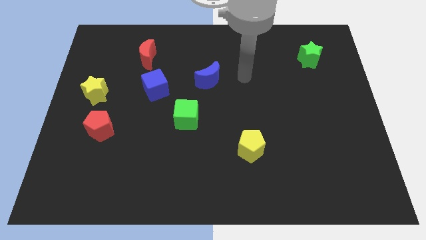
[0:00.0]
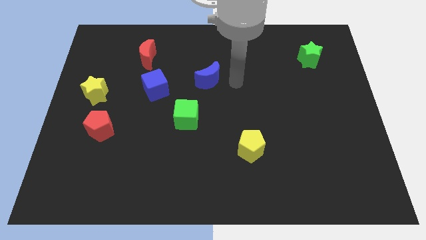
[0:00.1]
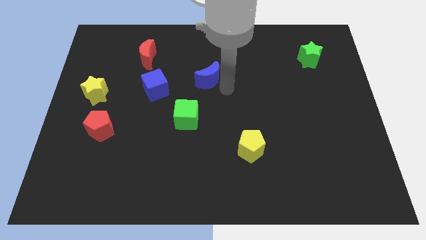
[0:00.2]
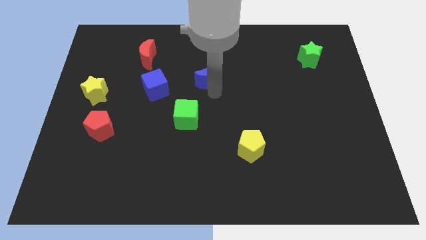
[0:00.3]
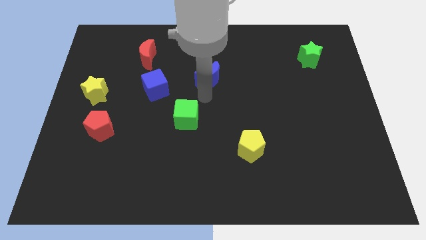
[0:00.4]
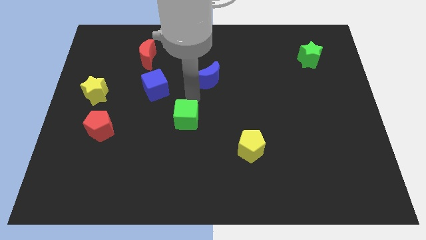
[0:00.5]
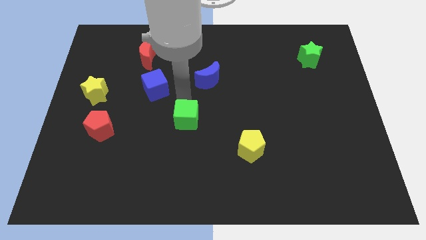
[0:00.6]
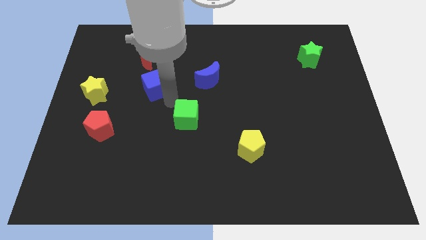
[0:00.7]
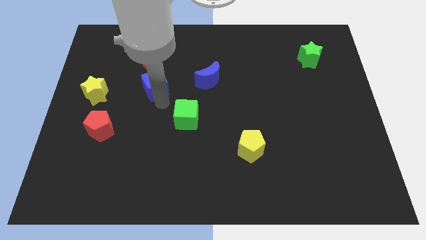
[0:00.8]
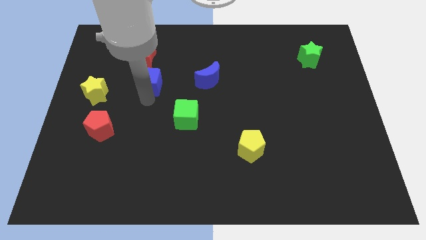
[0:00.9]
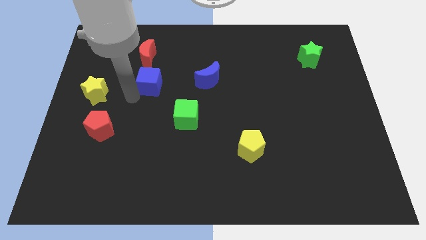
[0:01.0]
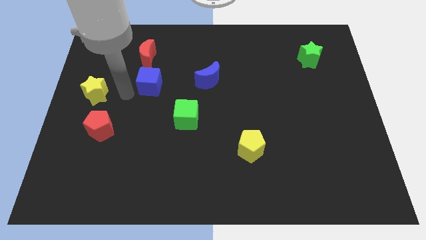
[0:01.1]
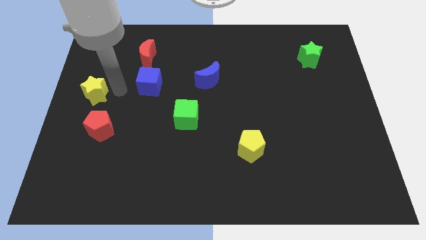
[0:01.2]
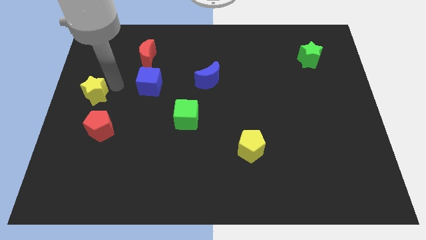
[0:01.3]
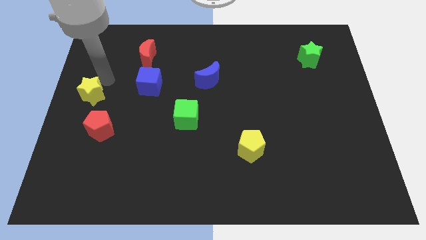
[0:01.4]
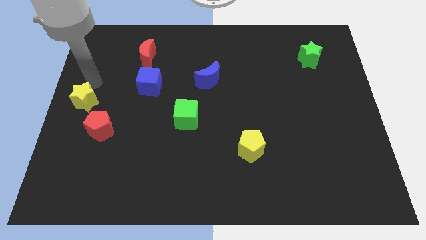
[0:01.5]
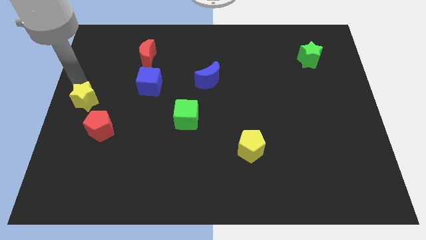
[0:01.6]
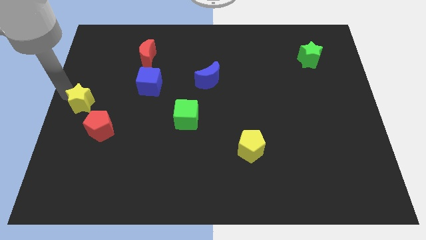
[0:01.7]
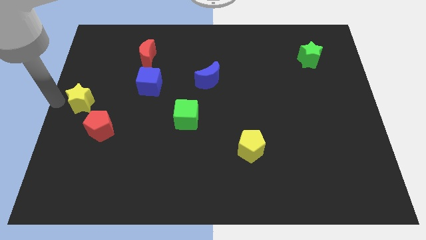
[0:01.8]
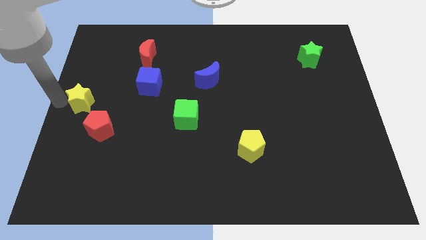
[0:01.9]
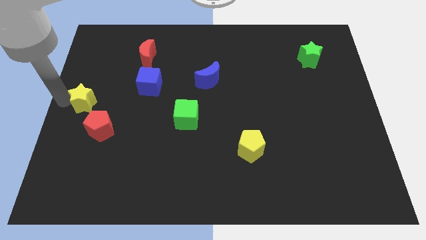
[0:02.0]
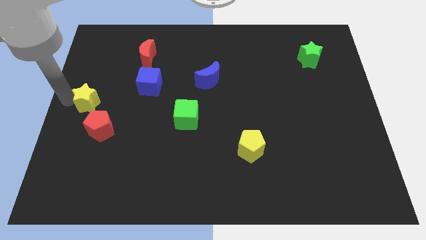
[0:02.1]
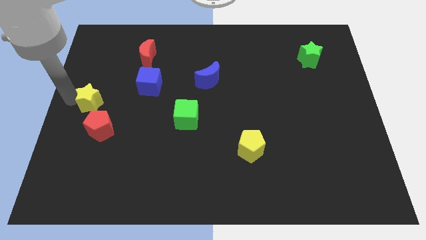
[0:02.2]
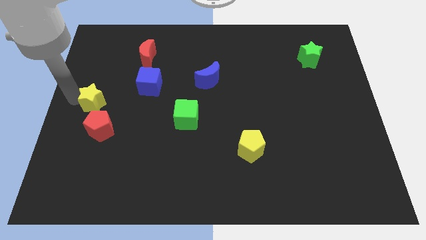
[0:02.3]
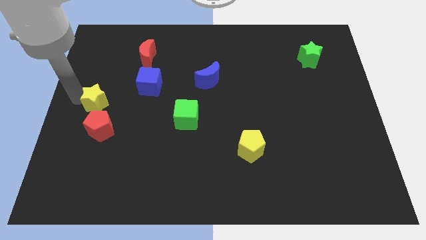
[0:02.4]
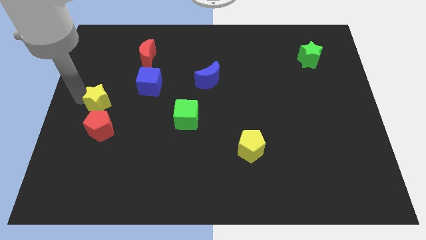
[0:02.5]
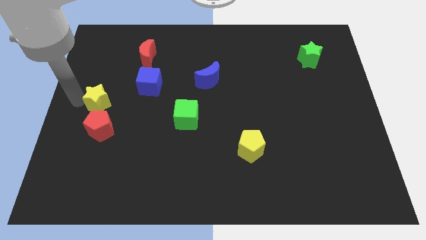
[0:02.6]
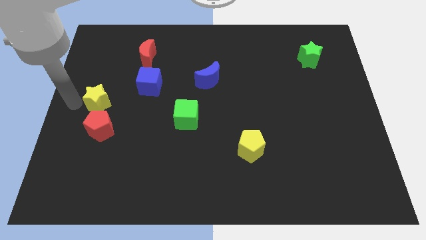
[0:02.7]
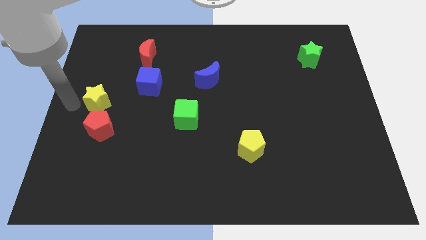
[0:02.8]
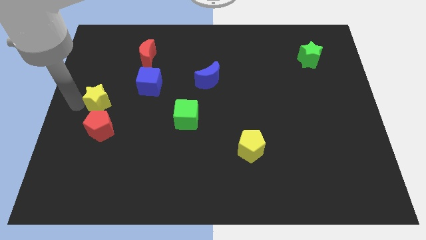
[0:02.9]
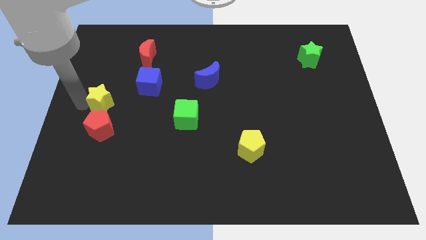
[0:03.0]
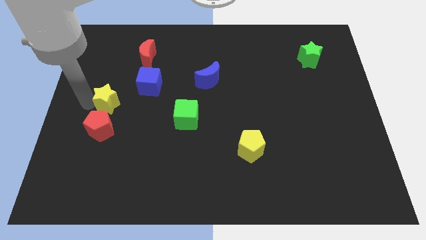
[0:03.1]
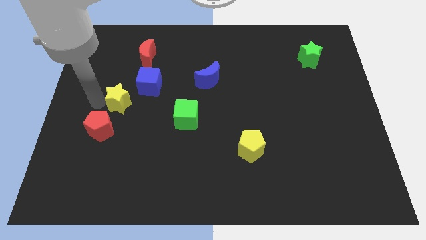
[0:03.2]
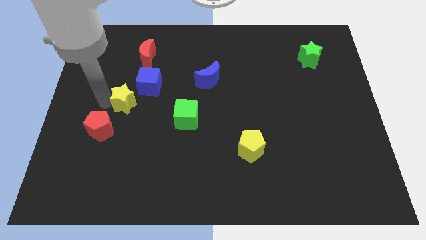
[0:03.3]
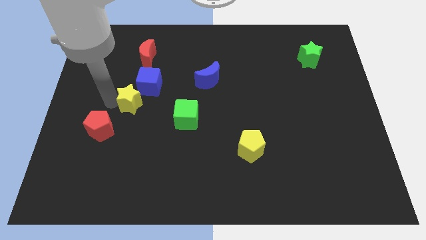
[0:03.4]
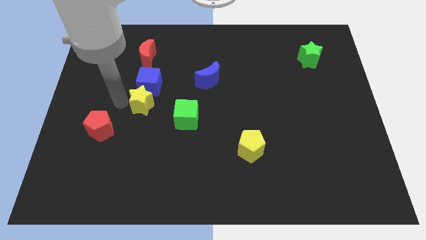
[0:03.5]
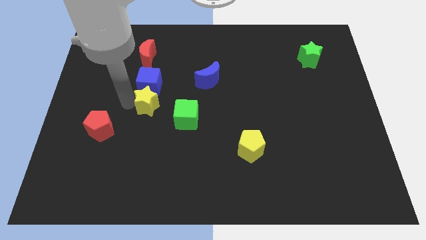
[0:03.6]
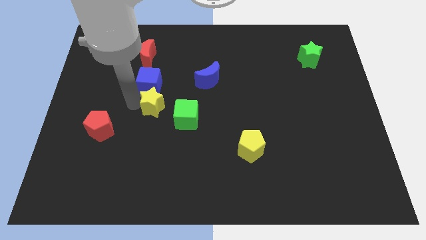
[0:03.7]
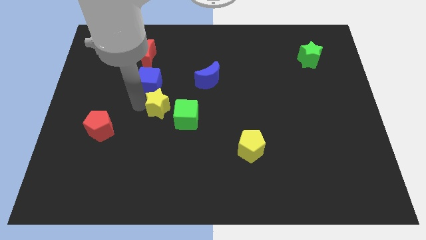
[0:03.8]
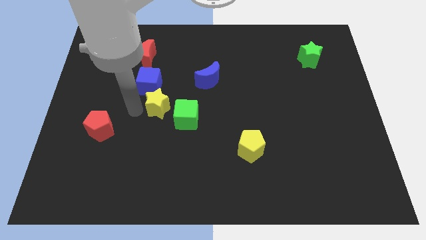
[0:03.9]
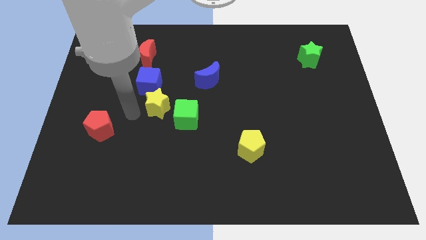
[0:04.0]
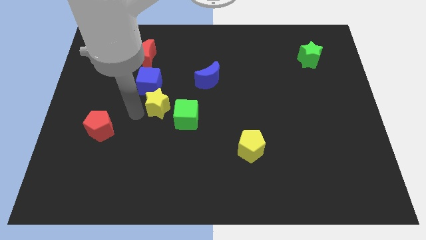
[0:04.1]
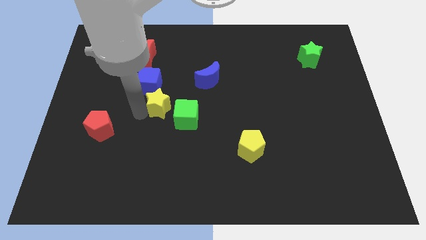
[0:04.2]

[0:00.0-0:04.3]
move the yellow star to the center

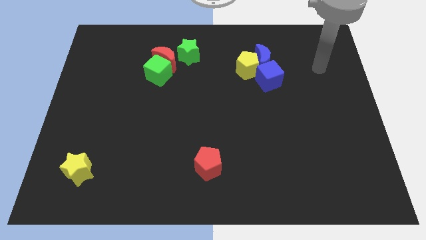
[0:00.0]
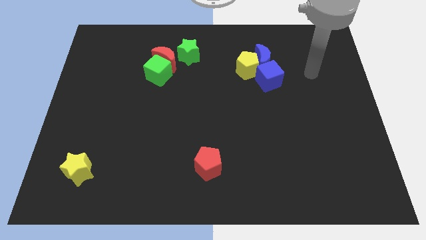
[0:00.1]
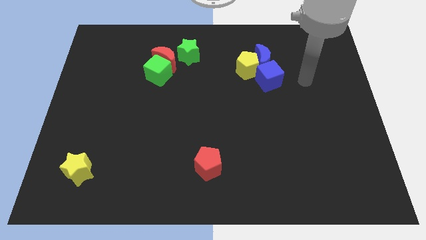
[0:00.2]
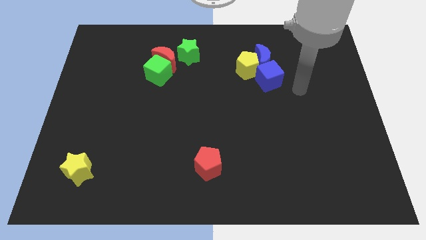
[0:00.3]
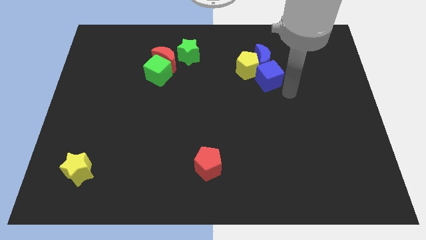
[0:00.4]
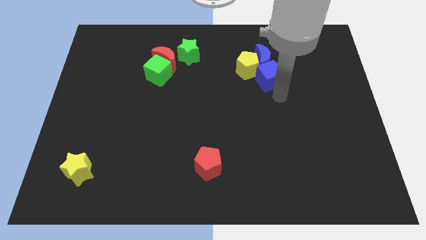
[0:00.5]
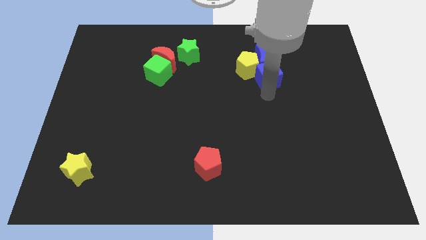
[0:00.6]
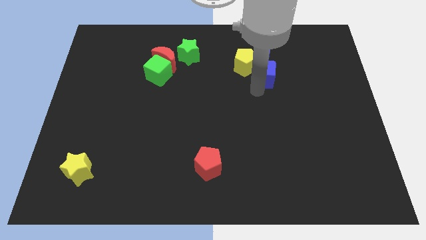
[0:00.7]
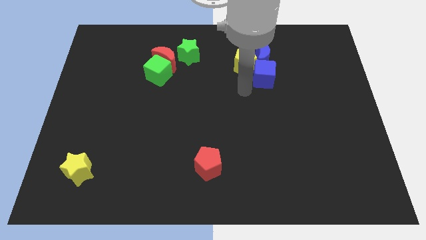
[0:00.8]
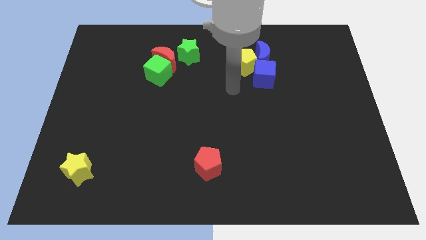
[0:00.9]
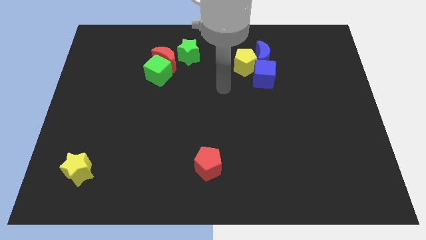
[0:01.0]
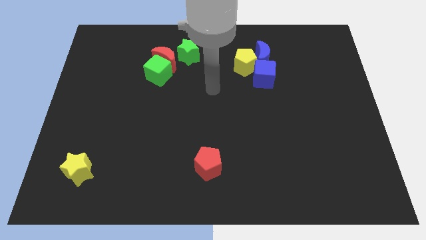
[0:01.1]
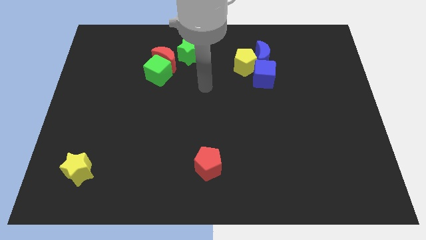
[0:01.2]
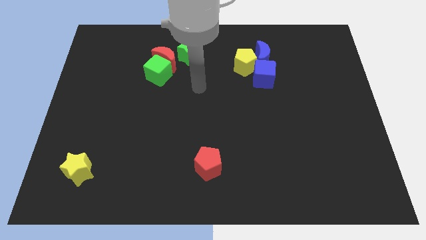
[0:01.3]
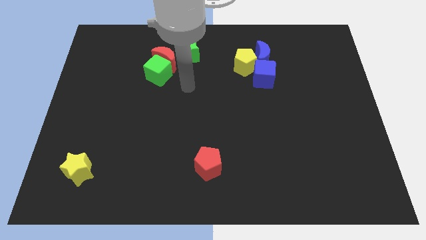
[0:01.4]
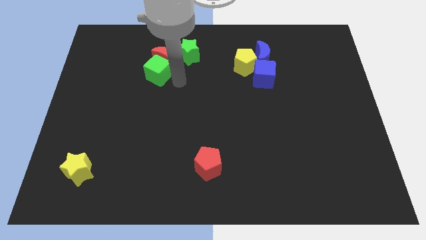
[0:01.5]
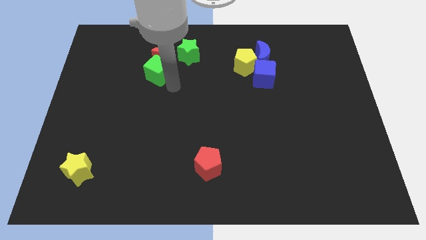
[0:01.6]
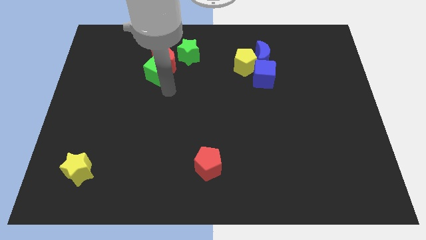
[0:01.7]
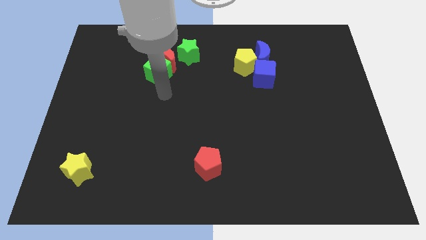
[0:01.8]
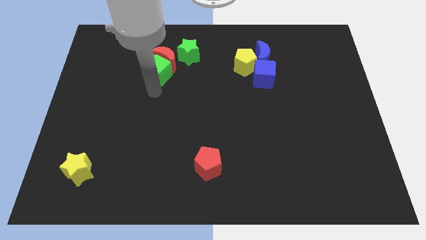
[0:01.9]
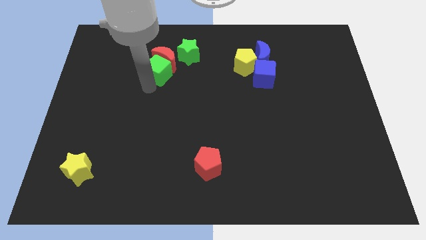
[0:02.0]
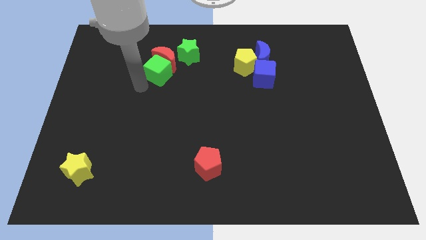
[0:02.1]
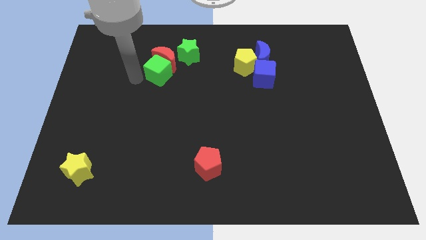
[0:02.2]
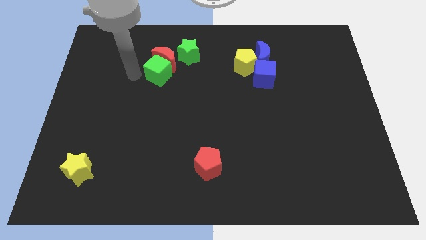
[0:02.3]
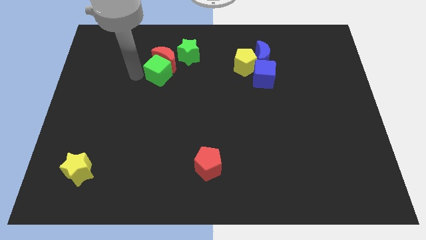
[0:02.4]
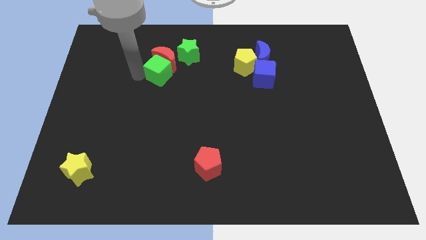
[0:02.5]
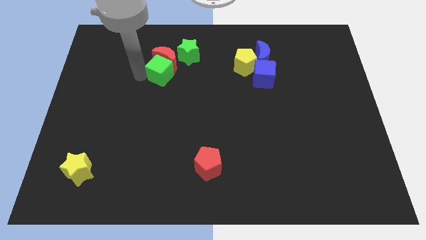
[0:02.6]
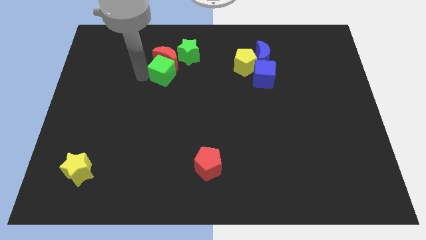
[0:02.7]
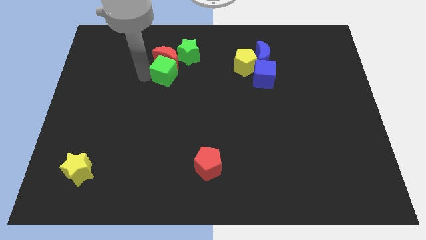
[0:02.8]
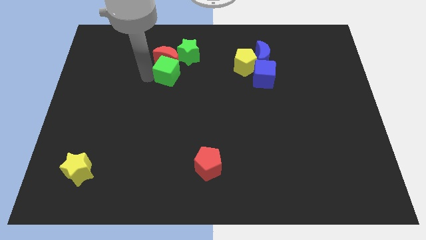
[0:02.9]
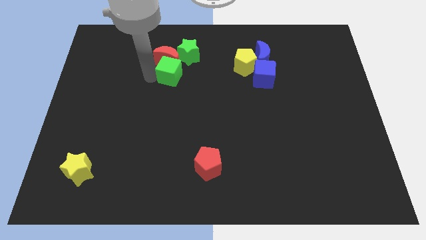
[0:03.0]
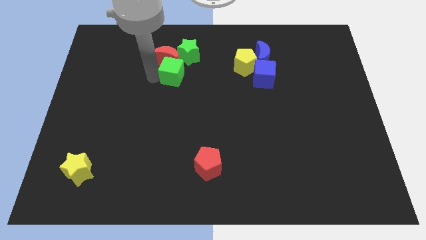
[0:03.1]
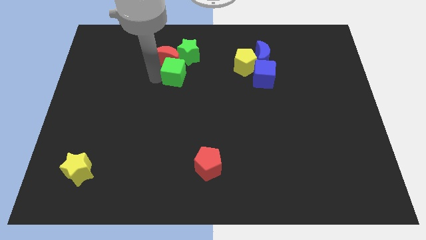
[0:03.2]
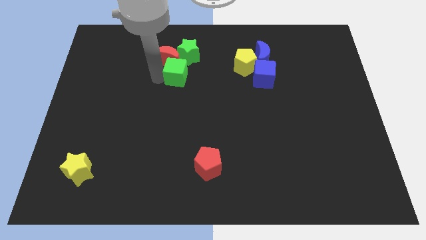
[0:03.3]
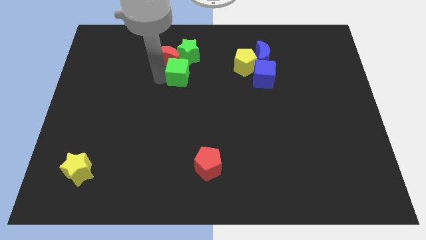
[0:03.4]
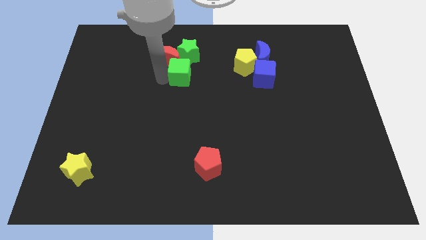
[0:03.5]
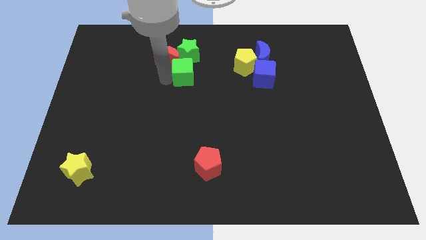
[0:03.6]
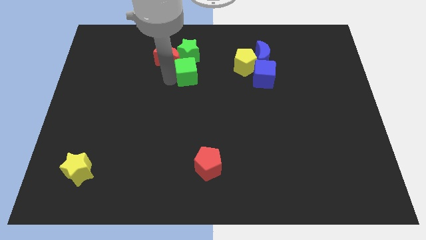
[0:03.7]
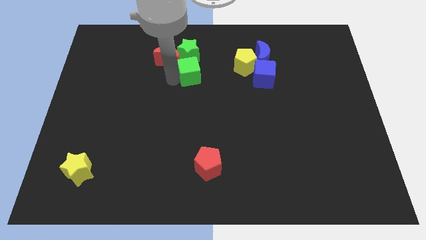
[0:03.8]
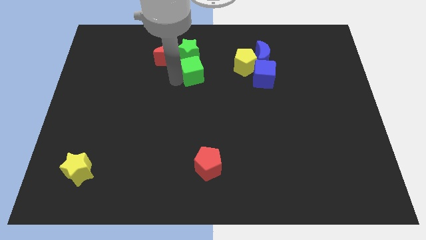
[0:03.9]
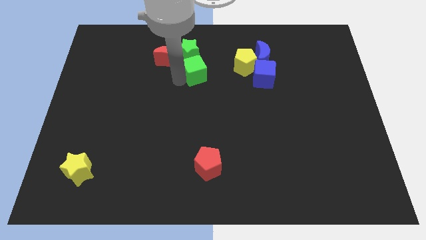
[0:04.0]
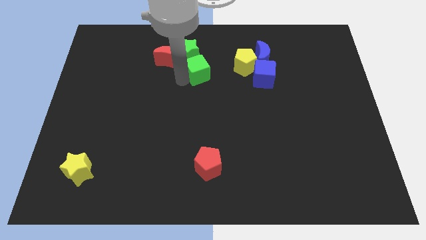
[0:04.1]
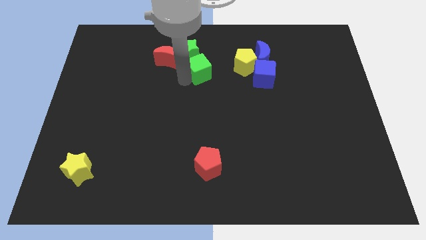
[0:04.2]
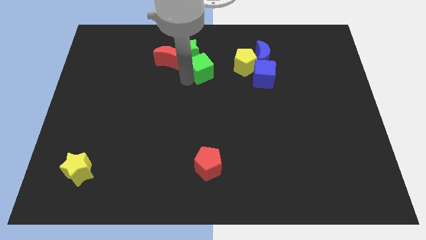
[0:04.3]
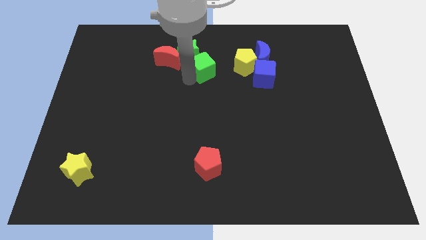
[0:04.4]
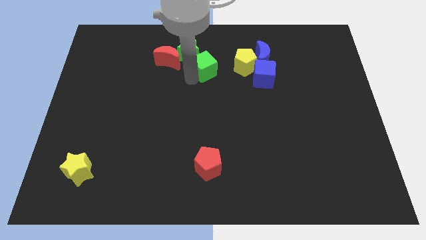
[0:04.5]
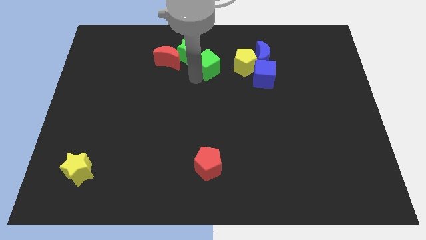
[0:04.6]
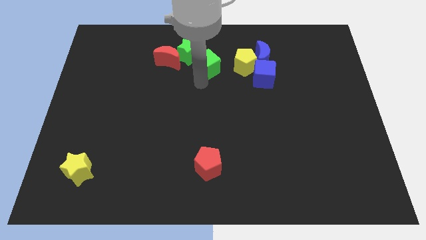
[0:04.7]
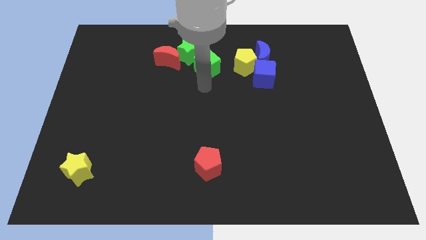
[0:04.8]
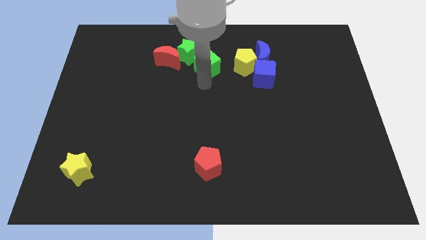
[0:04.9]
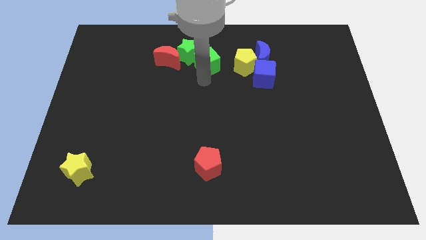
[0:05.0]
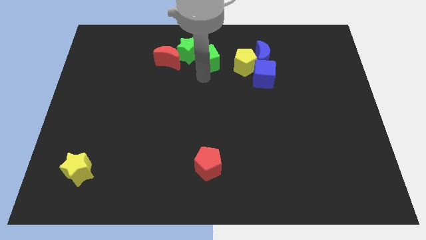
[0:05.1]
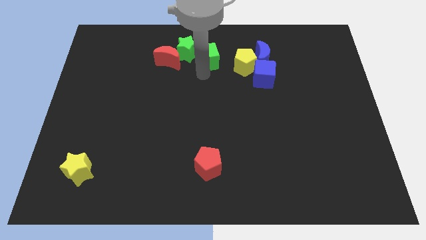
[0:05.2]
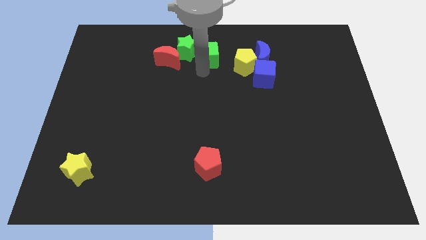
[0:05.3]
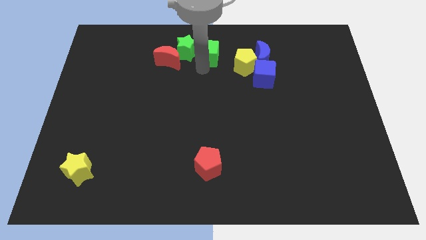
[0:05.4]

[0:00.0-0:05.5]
move the green cube to the towards your base
